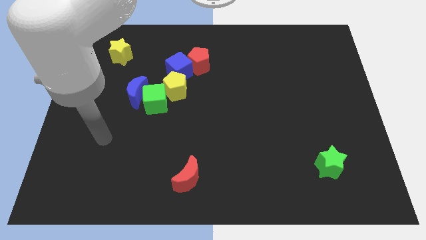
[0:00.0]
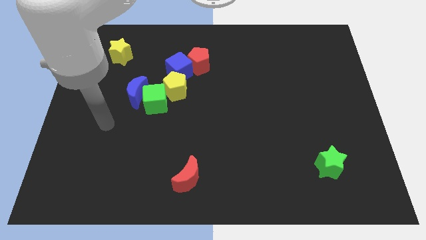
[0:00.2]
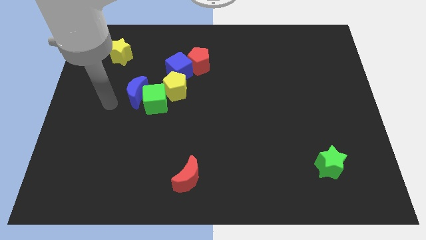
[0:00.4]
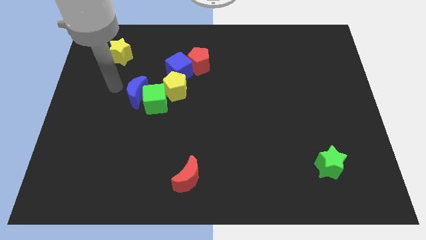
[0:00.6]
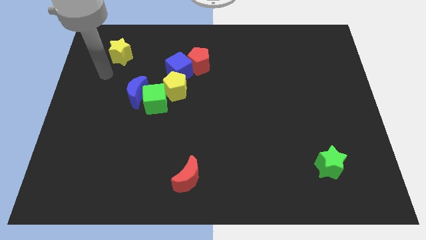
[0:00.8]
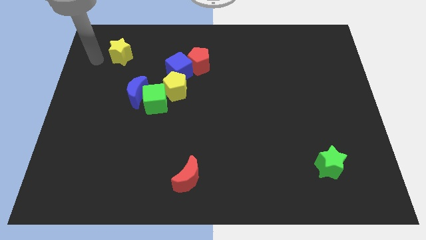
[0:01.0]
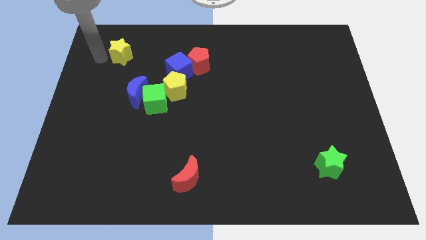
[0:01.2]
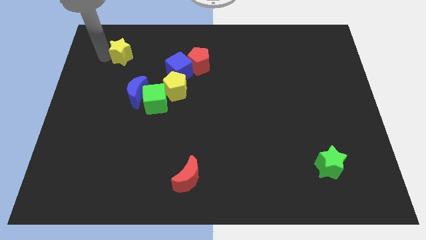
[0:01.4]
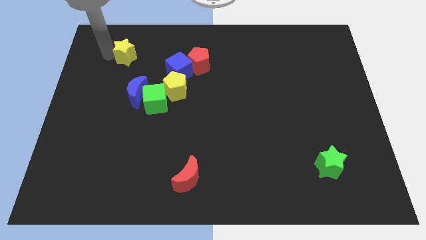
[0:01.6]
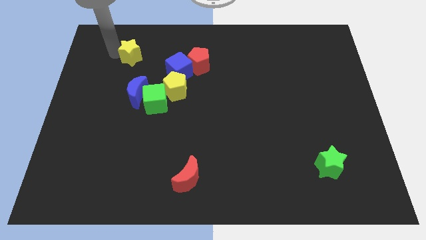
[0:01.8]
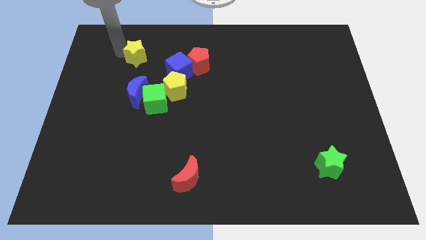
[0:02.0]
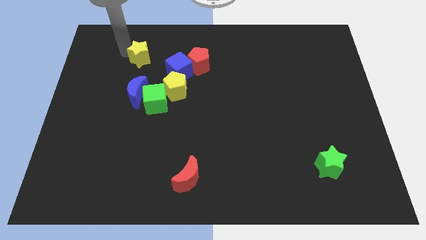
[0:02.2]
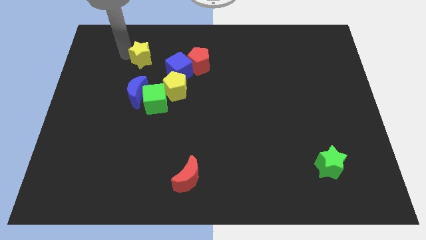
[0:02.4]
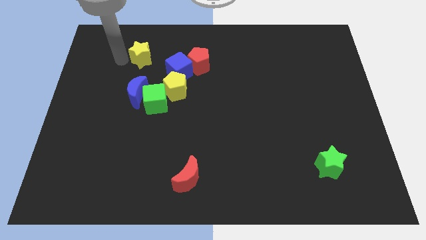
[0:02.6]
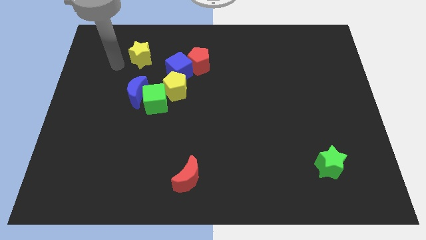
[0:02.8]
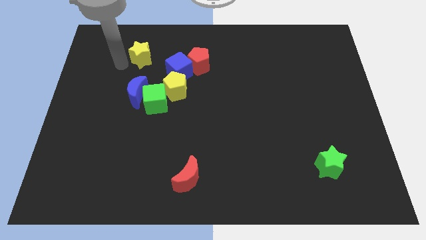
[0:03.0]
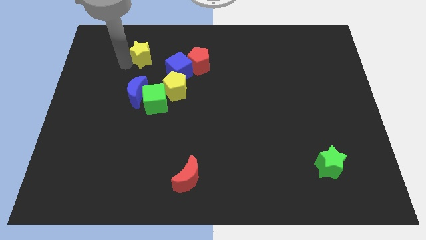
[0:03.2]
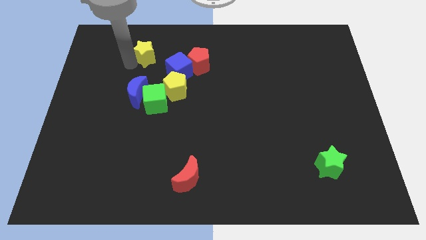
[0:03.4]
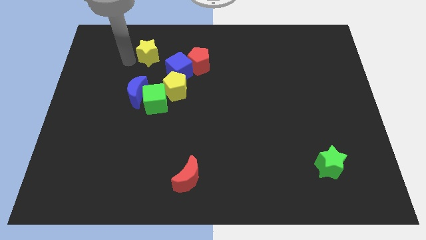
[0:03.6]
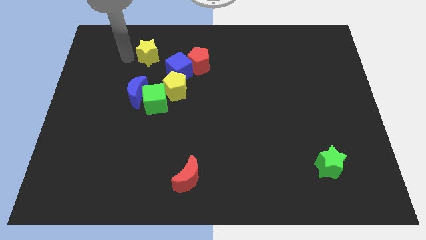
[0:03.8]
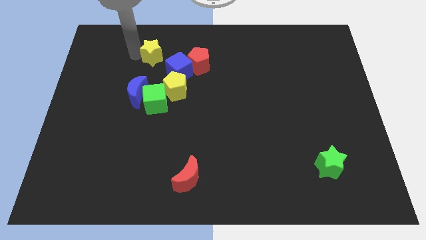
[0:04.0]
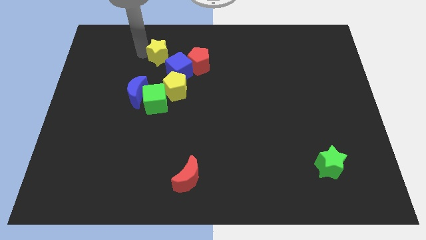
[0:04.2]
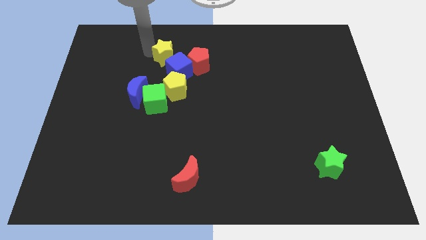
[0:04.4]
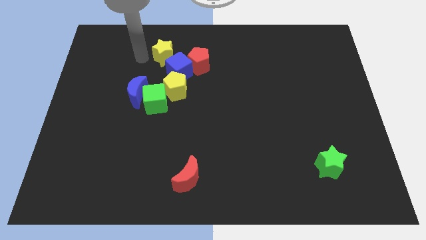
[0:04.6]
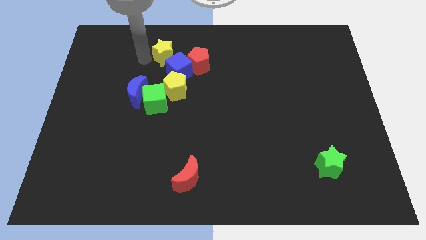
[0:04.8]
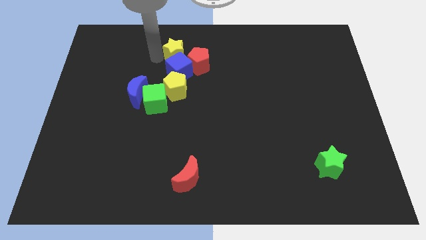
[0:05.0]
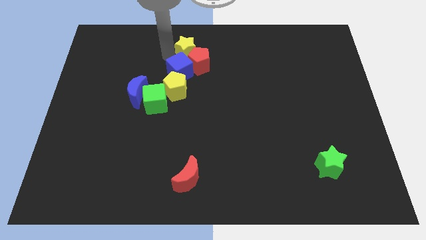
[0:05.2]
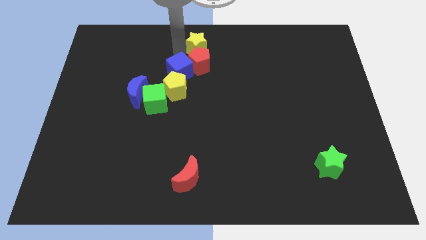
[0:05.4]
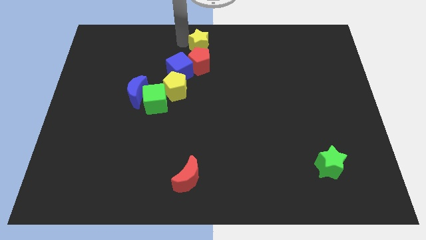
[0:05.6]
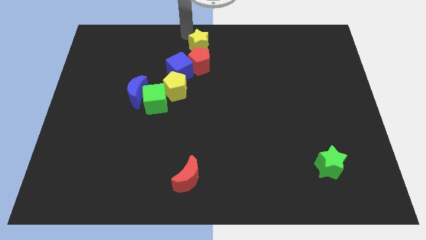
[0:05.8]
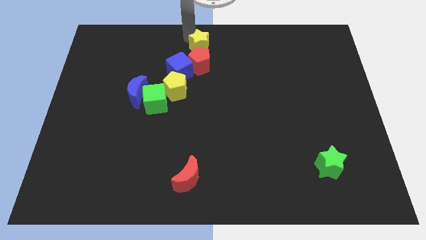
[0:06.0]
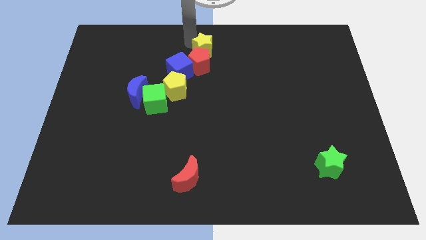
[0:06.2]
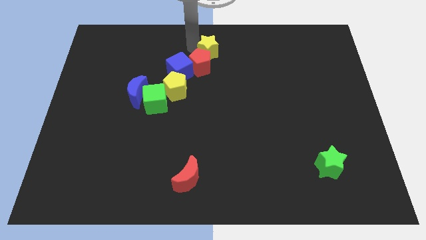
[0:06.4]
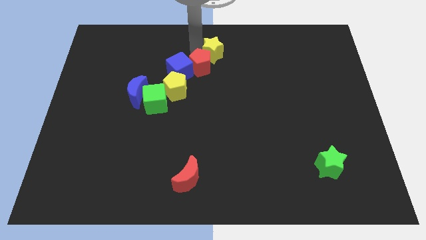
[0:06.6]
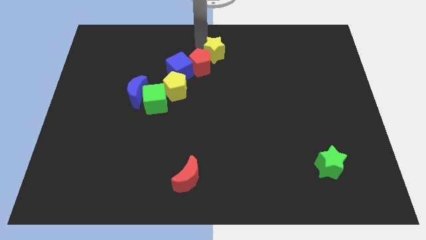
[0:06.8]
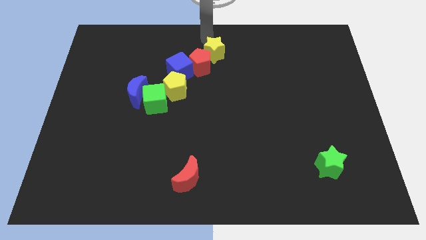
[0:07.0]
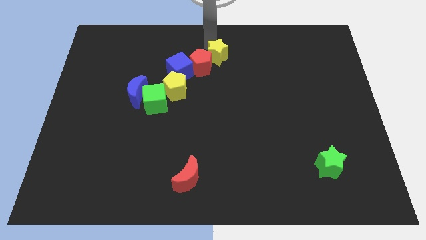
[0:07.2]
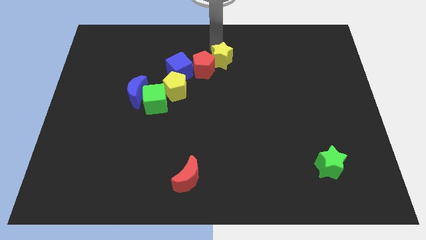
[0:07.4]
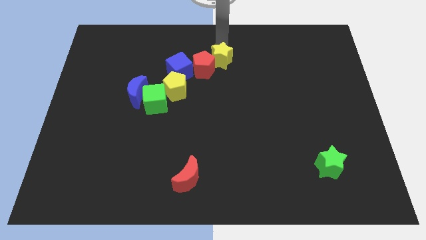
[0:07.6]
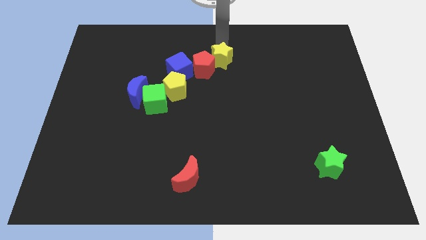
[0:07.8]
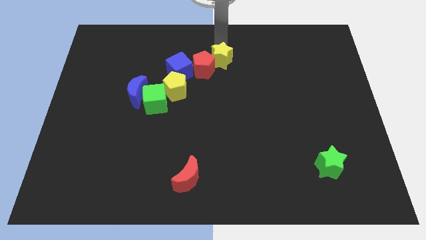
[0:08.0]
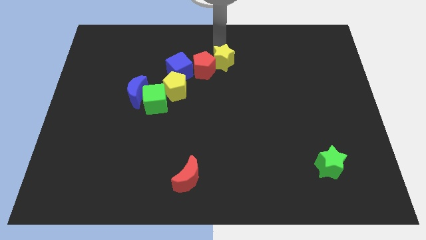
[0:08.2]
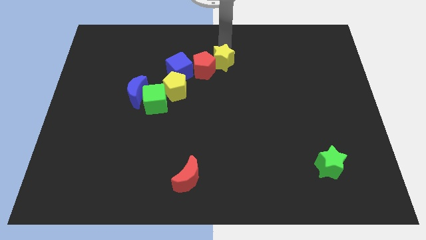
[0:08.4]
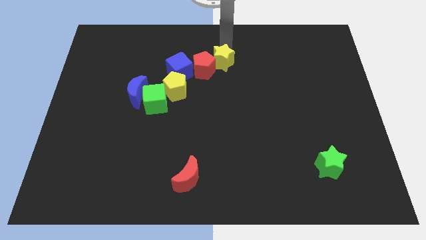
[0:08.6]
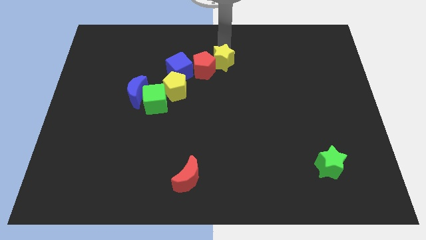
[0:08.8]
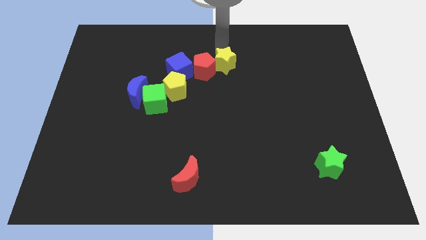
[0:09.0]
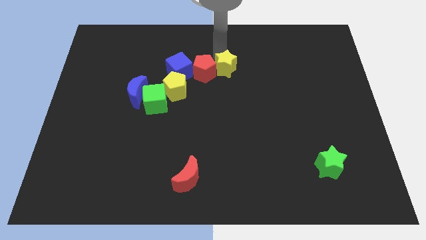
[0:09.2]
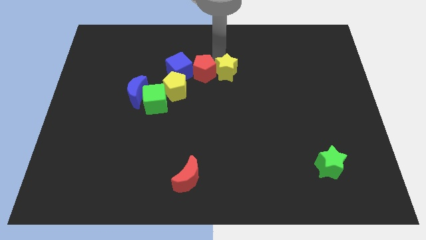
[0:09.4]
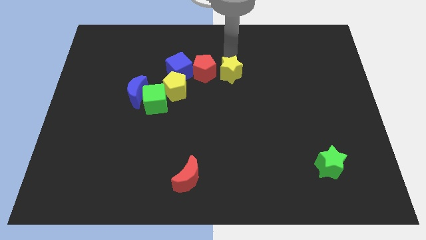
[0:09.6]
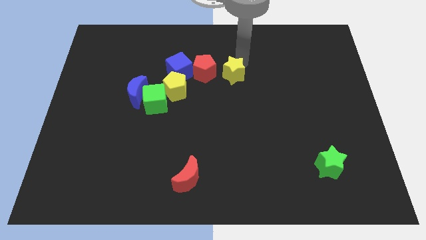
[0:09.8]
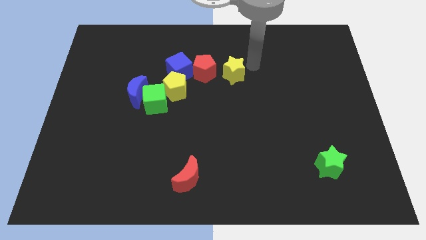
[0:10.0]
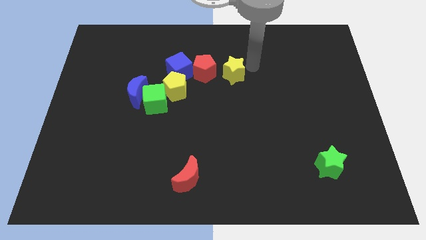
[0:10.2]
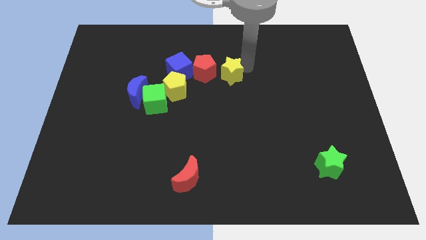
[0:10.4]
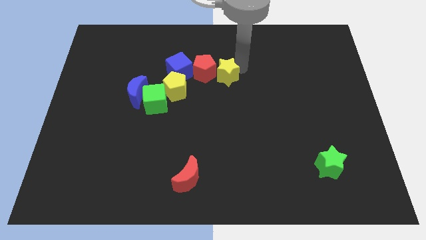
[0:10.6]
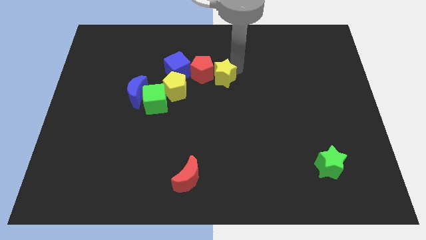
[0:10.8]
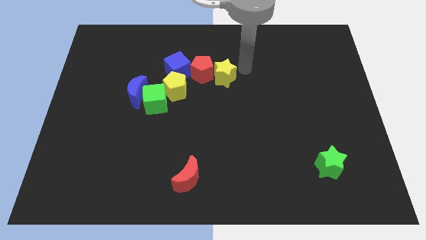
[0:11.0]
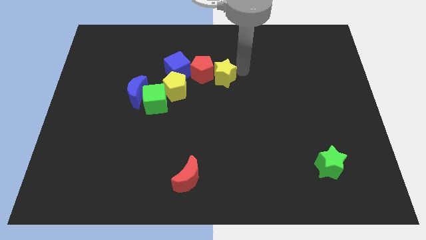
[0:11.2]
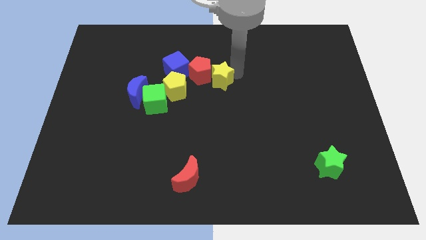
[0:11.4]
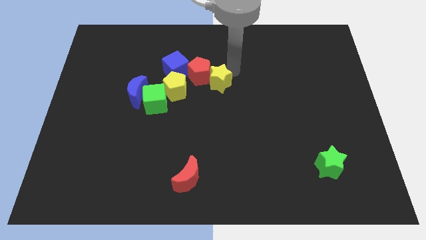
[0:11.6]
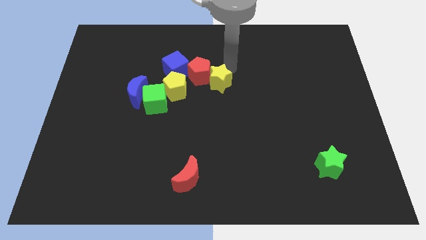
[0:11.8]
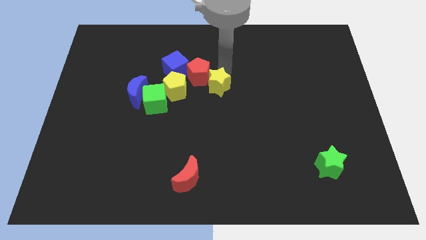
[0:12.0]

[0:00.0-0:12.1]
slide the yellow star to the bottom of the red pentagon

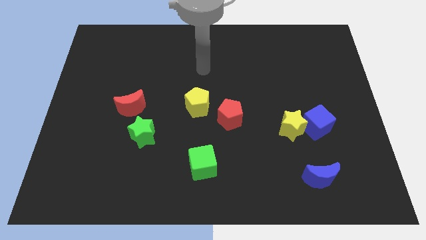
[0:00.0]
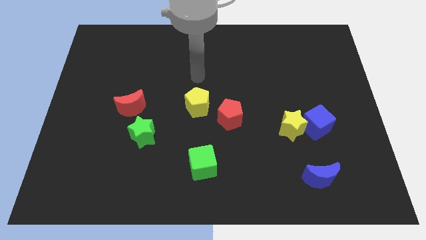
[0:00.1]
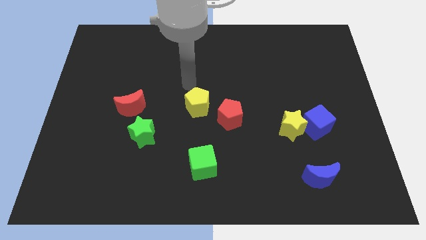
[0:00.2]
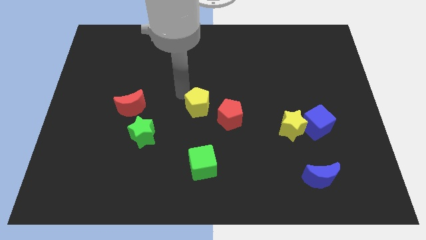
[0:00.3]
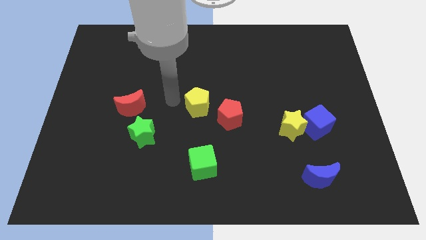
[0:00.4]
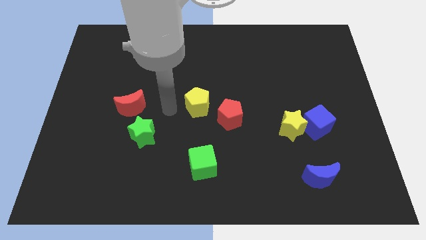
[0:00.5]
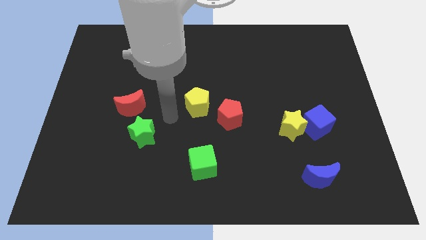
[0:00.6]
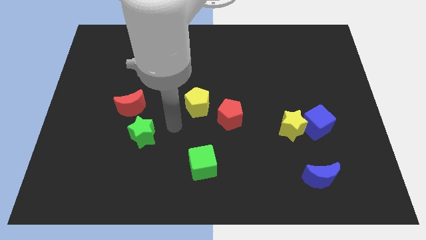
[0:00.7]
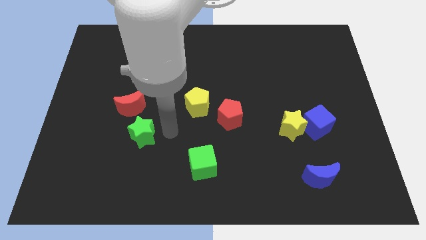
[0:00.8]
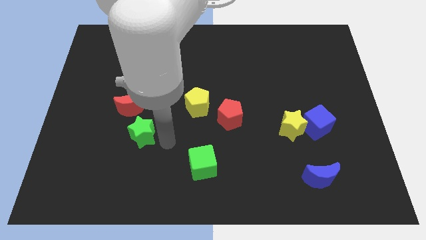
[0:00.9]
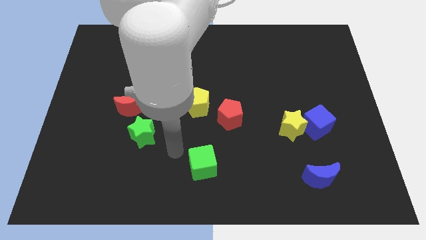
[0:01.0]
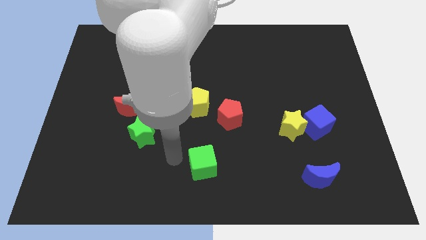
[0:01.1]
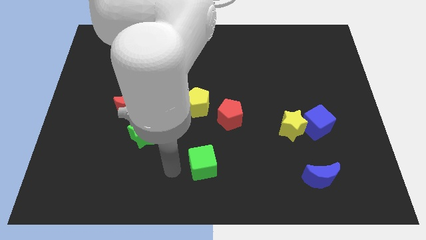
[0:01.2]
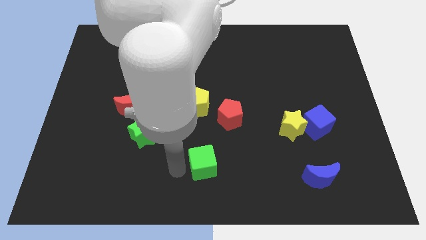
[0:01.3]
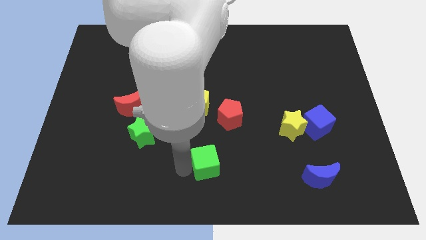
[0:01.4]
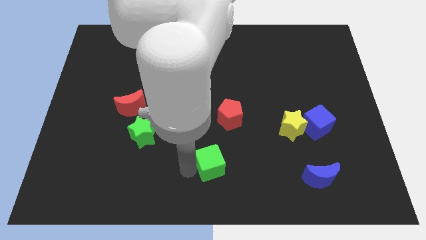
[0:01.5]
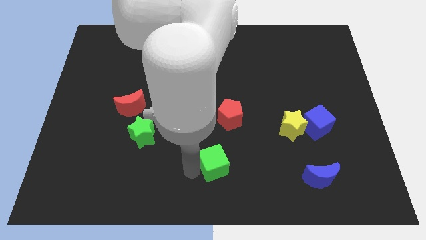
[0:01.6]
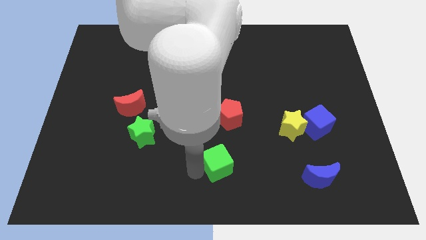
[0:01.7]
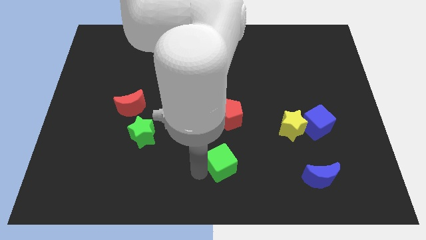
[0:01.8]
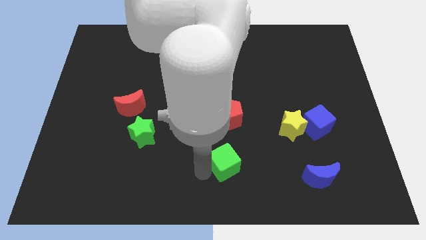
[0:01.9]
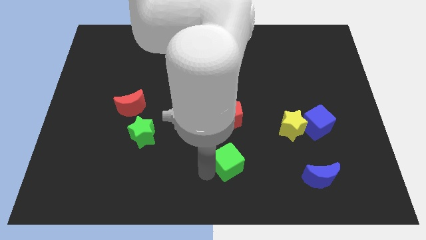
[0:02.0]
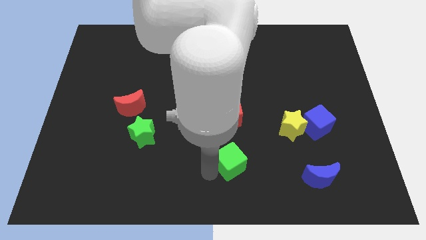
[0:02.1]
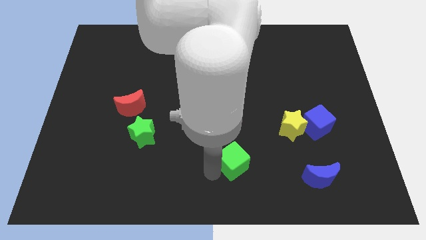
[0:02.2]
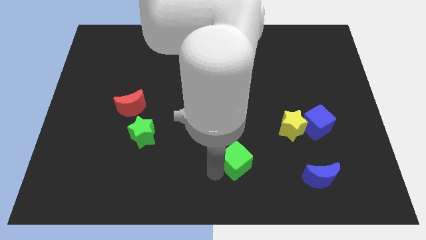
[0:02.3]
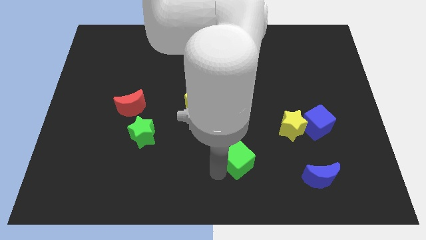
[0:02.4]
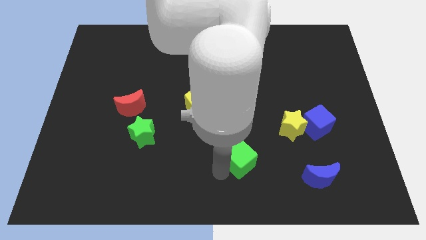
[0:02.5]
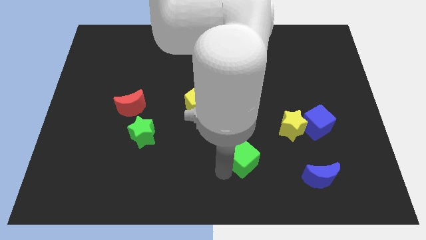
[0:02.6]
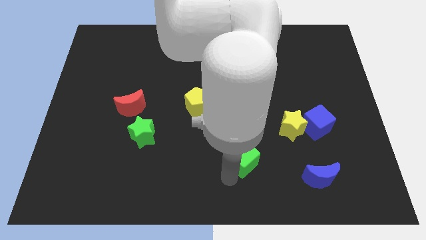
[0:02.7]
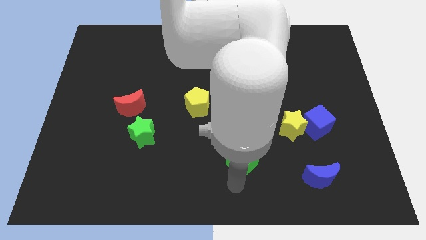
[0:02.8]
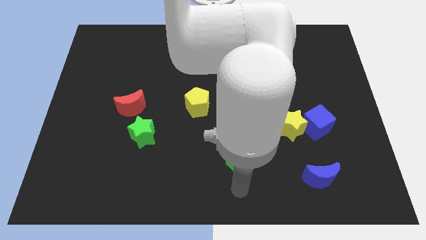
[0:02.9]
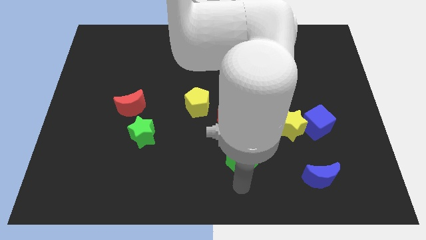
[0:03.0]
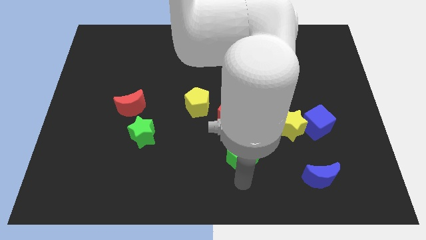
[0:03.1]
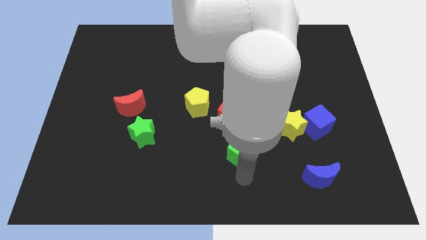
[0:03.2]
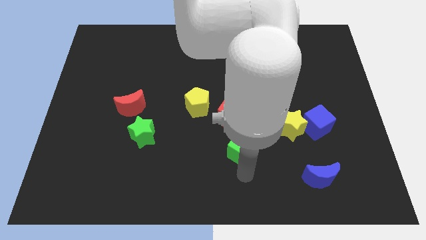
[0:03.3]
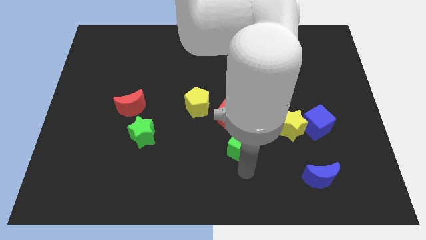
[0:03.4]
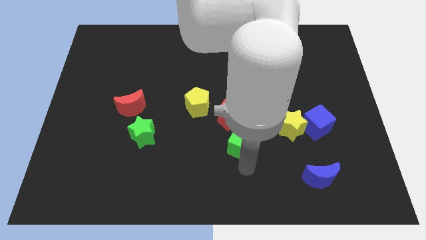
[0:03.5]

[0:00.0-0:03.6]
move the green cube just left of the yellow star
